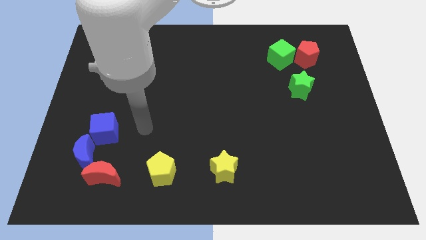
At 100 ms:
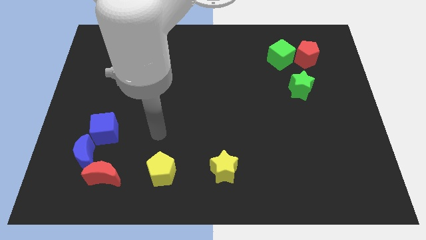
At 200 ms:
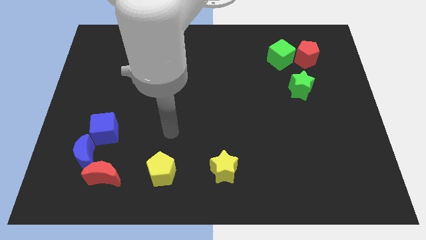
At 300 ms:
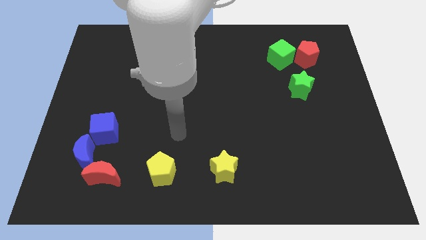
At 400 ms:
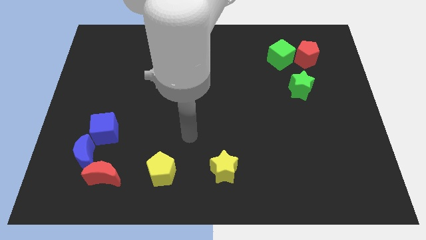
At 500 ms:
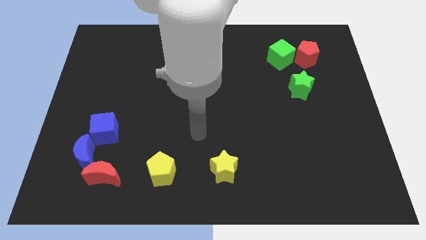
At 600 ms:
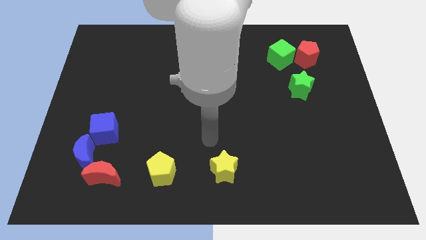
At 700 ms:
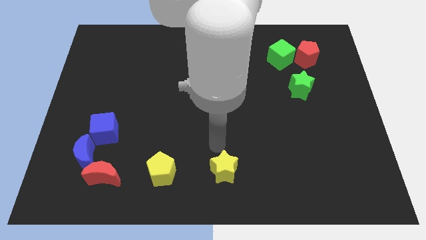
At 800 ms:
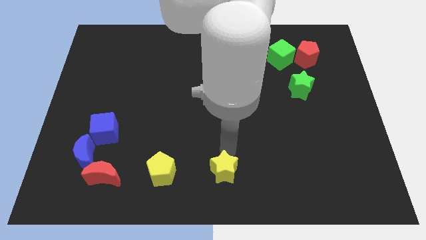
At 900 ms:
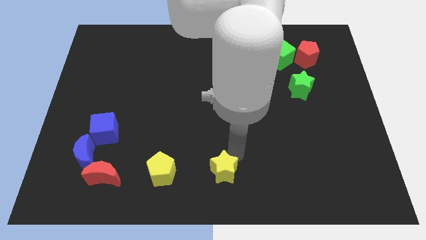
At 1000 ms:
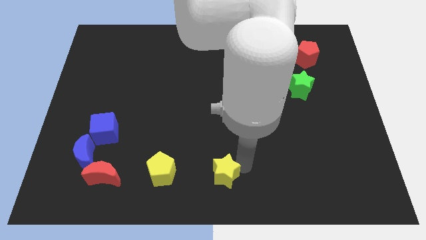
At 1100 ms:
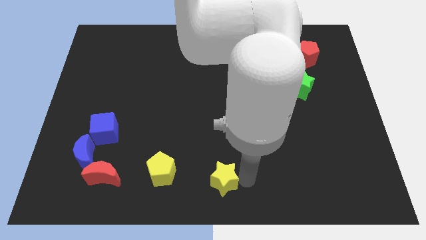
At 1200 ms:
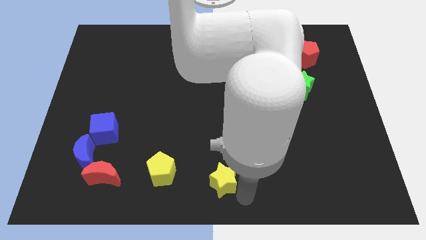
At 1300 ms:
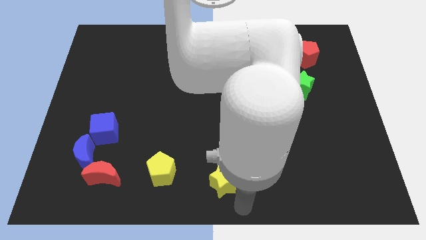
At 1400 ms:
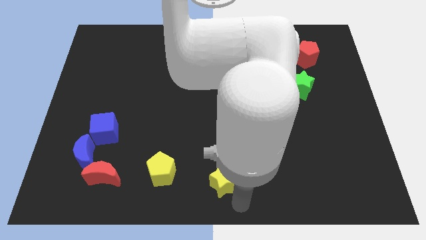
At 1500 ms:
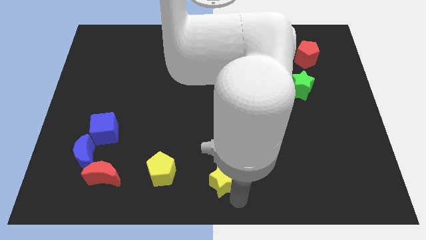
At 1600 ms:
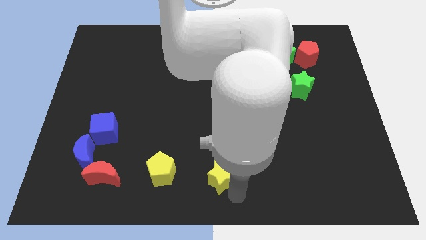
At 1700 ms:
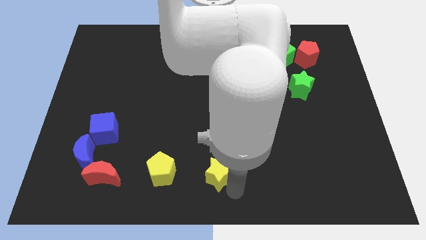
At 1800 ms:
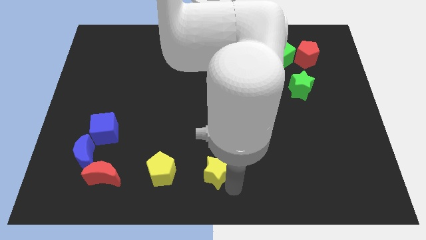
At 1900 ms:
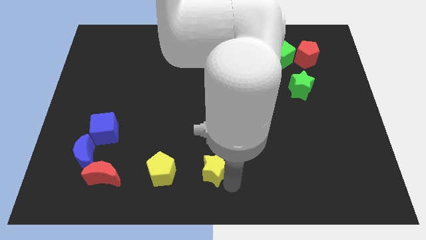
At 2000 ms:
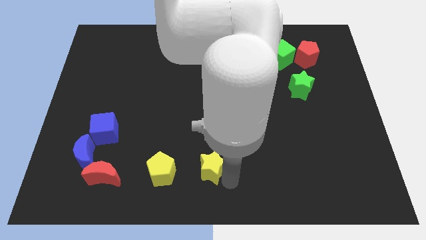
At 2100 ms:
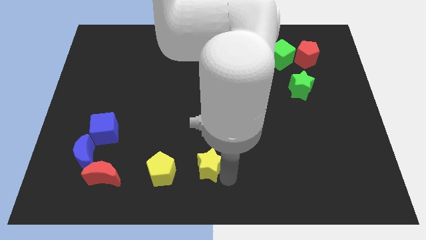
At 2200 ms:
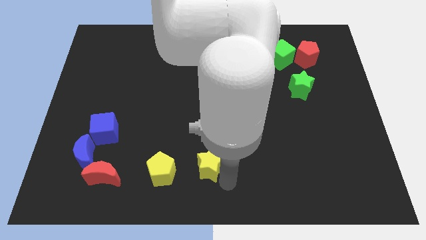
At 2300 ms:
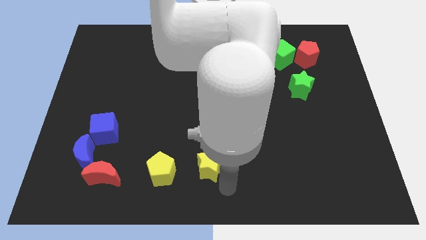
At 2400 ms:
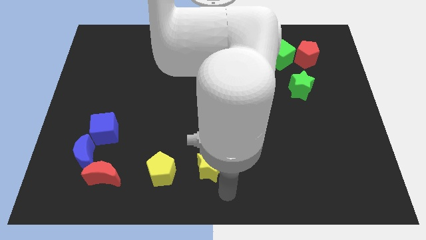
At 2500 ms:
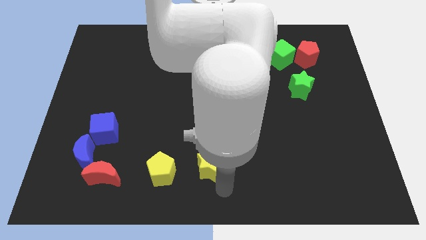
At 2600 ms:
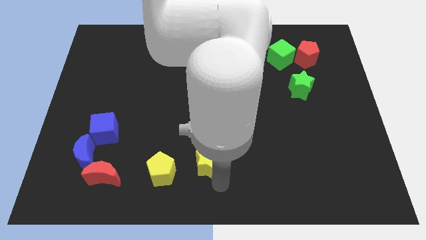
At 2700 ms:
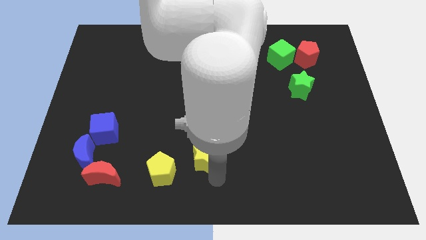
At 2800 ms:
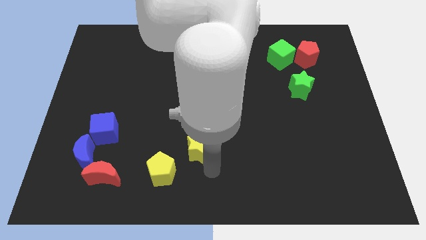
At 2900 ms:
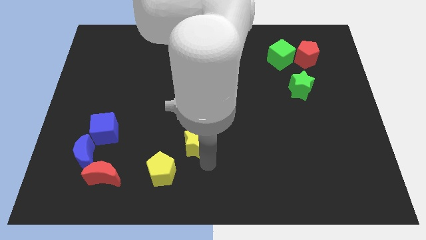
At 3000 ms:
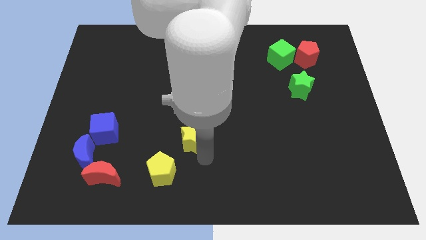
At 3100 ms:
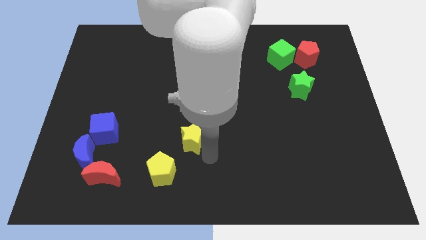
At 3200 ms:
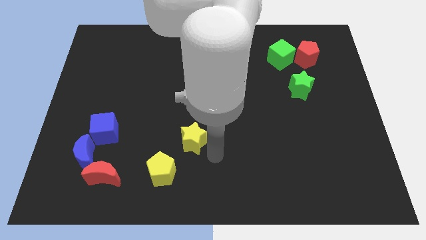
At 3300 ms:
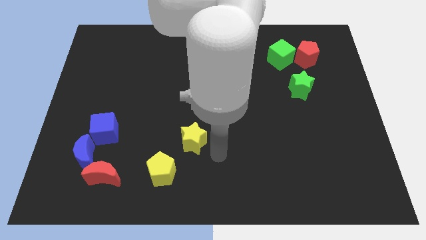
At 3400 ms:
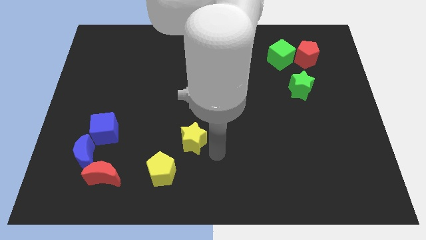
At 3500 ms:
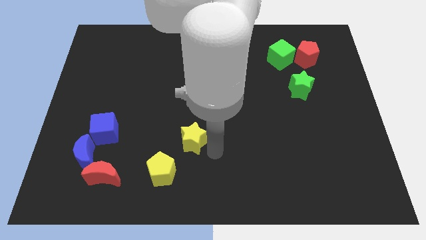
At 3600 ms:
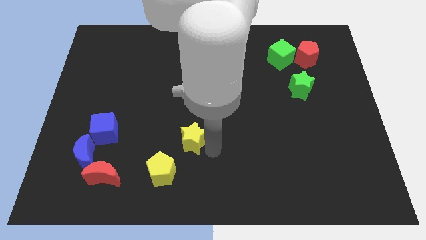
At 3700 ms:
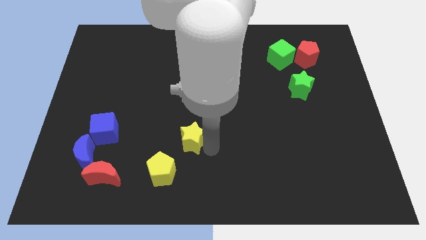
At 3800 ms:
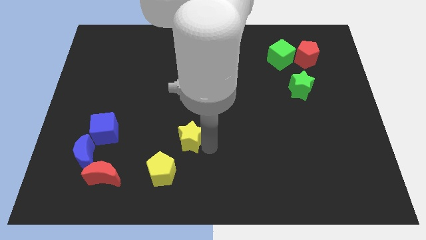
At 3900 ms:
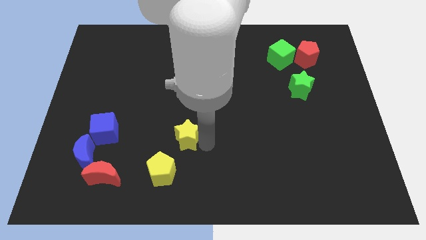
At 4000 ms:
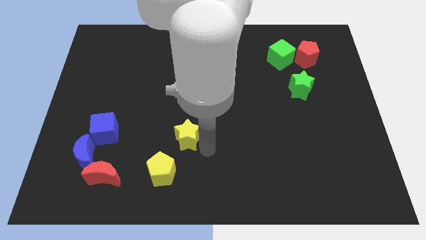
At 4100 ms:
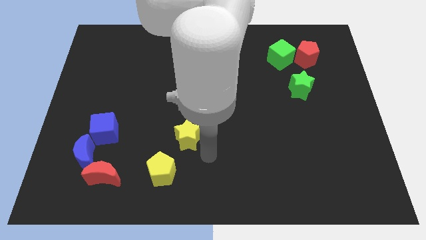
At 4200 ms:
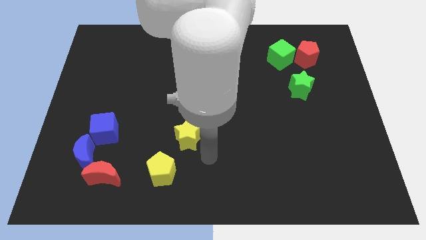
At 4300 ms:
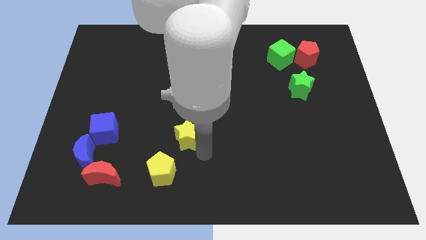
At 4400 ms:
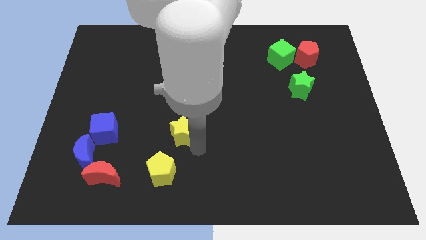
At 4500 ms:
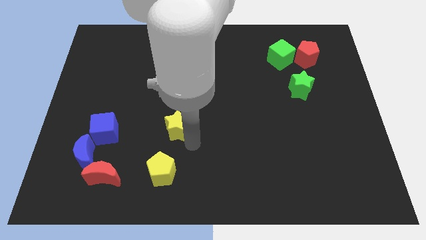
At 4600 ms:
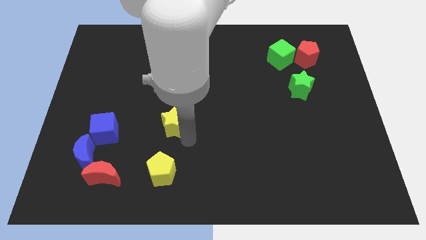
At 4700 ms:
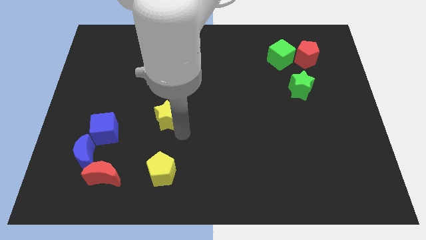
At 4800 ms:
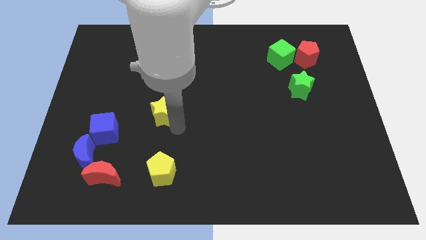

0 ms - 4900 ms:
push the yellow star diagonally up and to the left

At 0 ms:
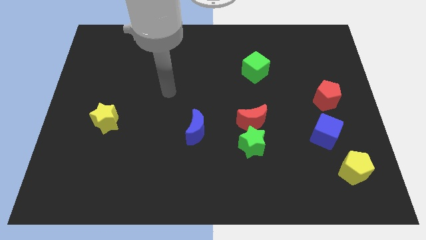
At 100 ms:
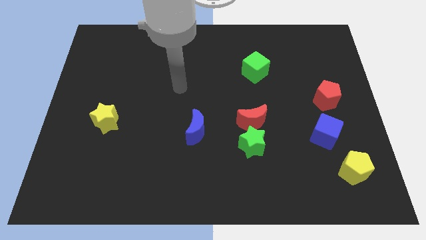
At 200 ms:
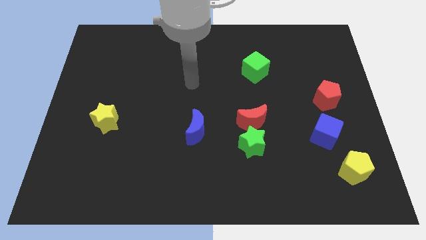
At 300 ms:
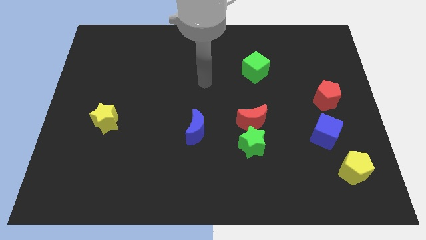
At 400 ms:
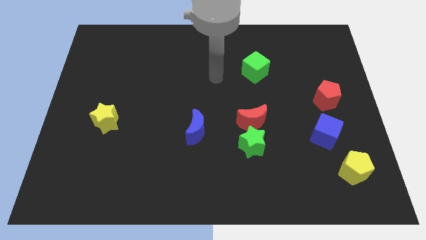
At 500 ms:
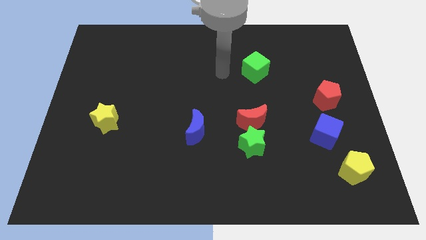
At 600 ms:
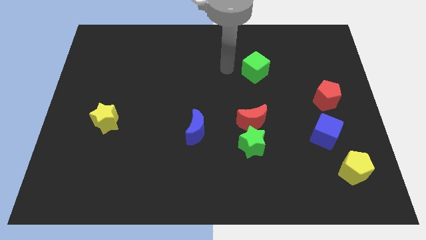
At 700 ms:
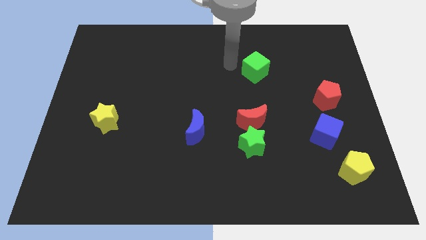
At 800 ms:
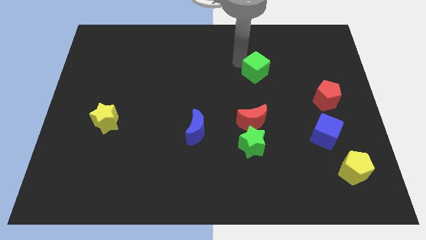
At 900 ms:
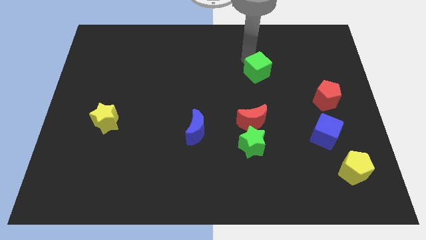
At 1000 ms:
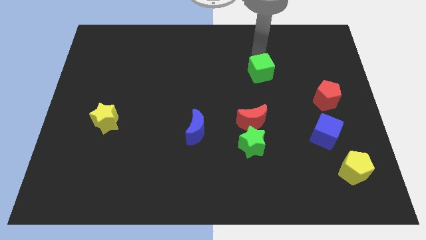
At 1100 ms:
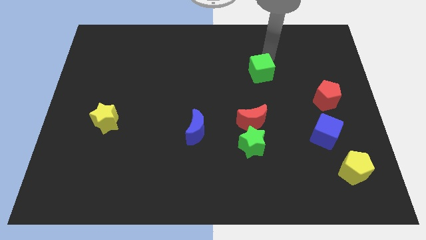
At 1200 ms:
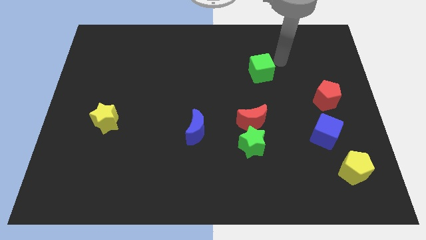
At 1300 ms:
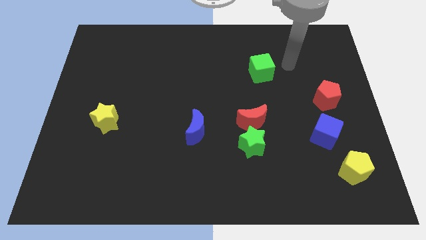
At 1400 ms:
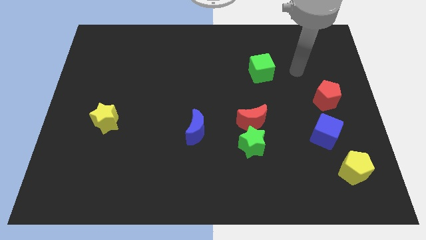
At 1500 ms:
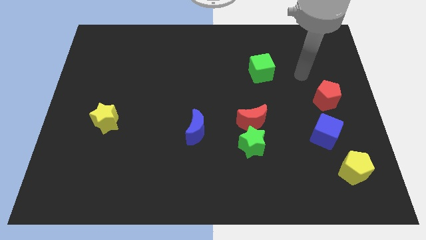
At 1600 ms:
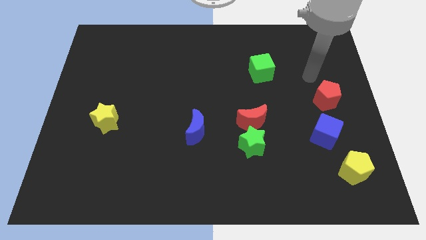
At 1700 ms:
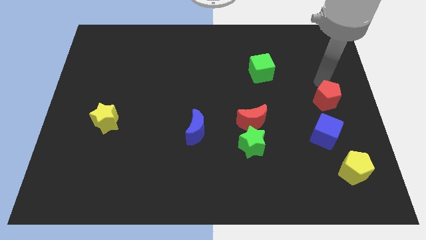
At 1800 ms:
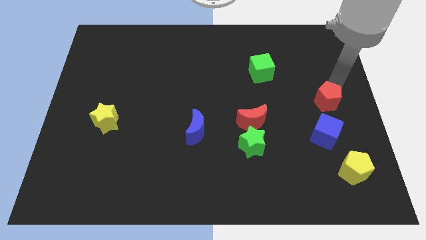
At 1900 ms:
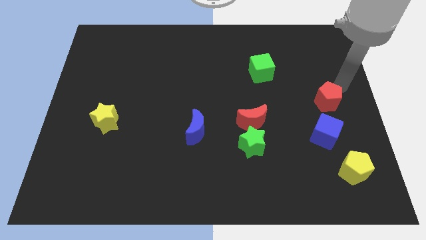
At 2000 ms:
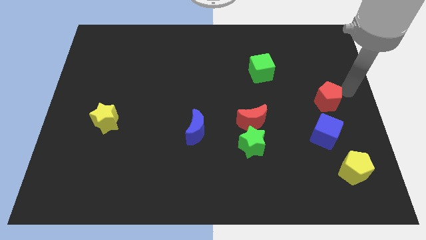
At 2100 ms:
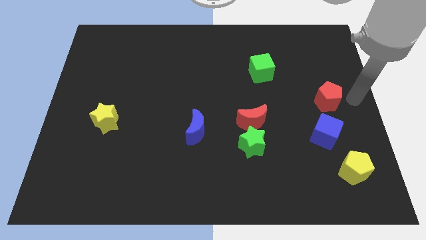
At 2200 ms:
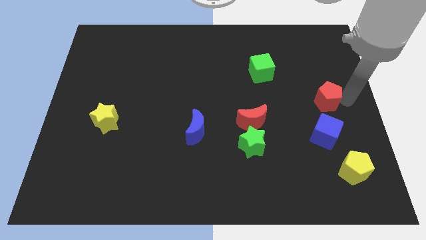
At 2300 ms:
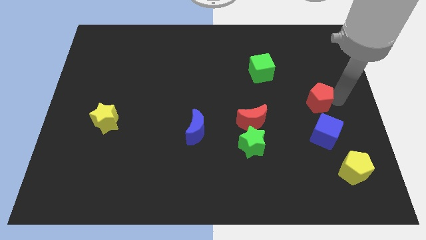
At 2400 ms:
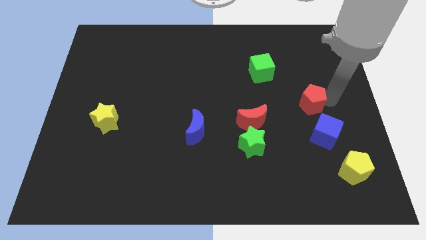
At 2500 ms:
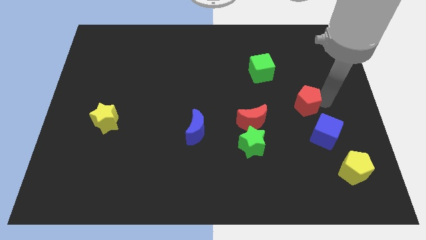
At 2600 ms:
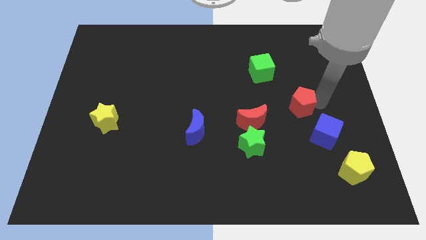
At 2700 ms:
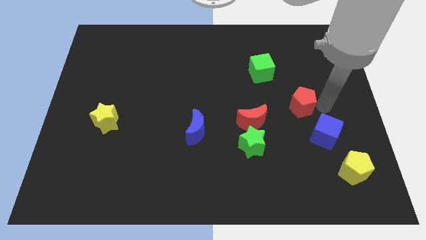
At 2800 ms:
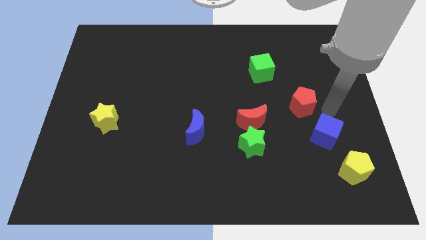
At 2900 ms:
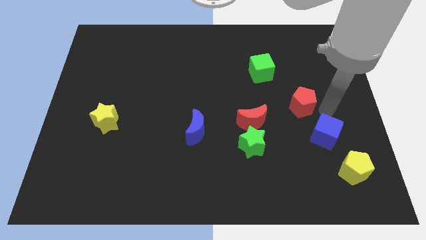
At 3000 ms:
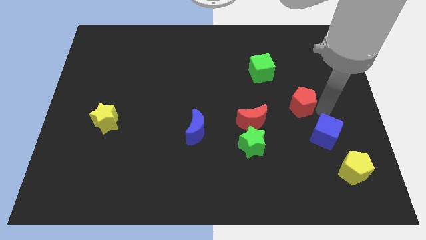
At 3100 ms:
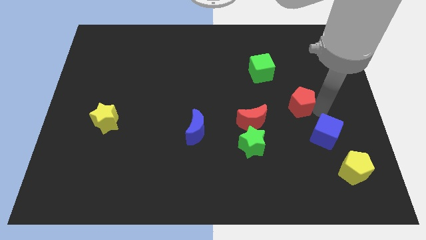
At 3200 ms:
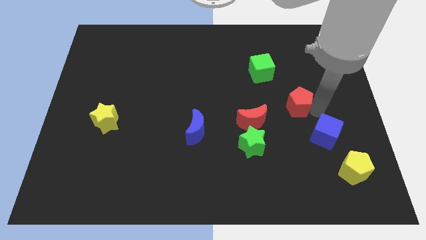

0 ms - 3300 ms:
slide the red pentagon somewhat left
